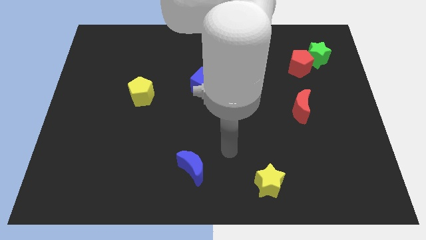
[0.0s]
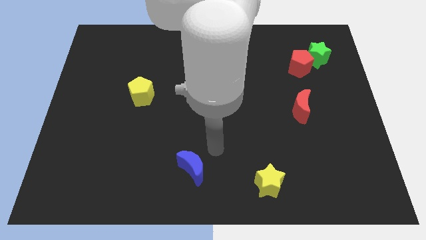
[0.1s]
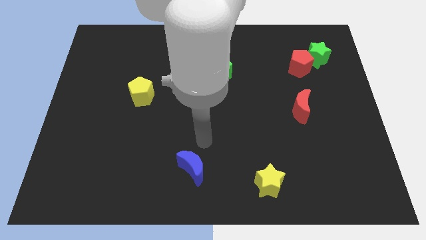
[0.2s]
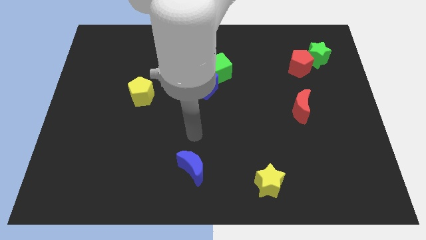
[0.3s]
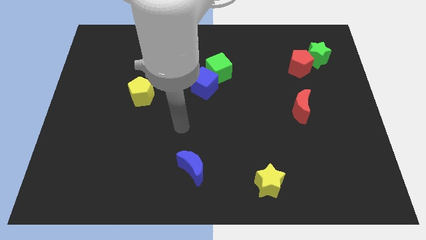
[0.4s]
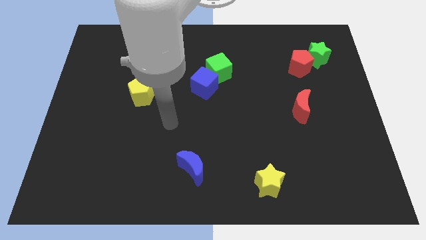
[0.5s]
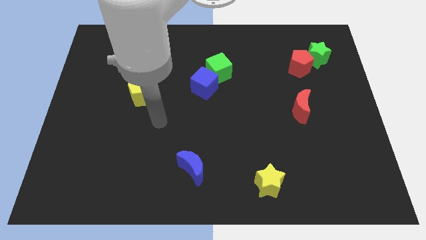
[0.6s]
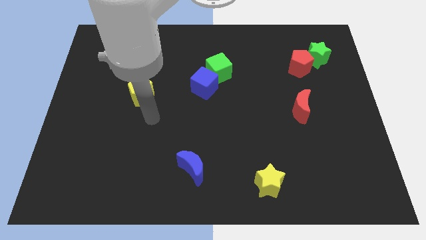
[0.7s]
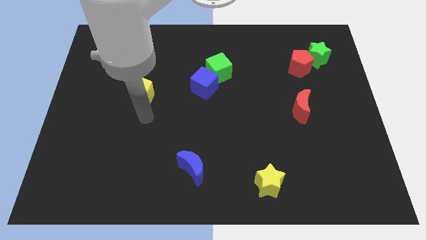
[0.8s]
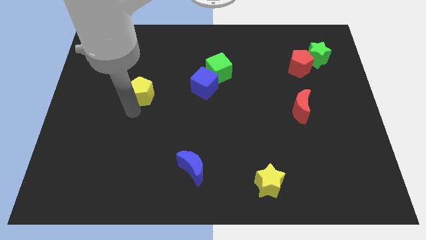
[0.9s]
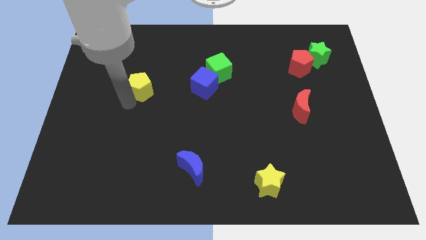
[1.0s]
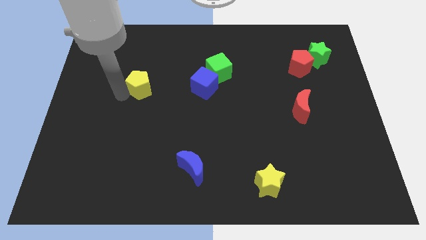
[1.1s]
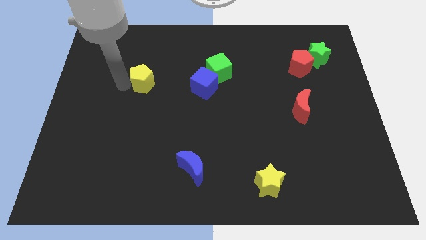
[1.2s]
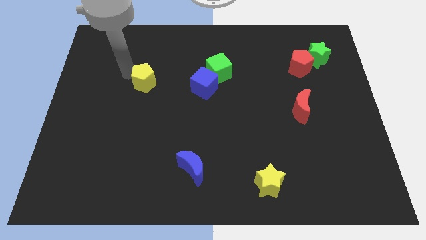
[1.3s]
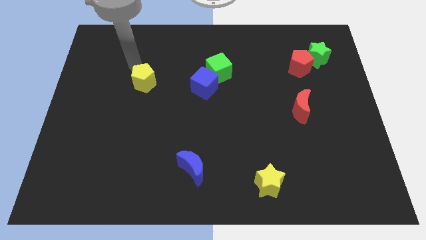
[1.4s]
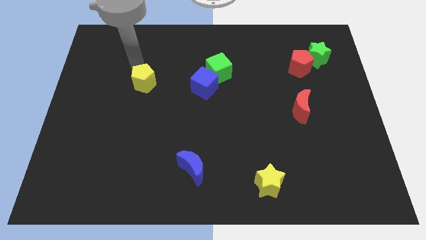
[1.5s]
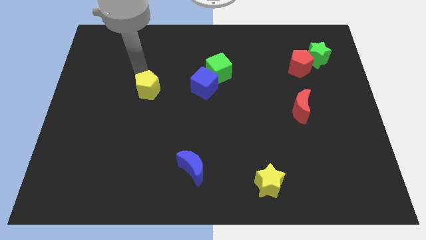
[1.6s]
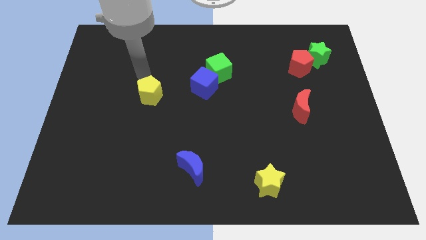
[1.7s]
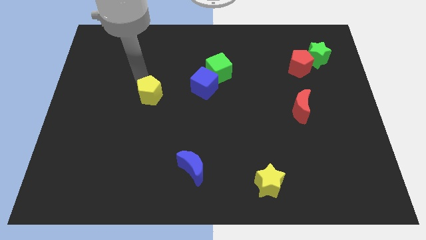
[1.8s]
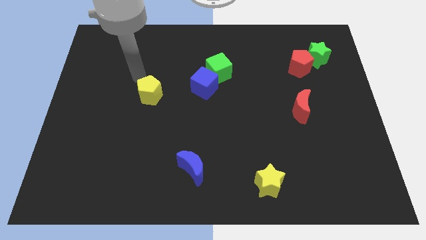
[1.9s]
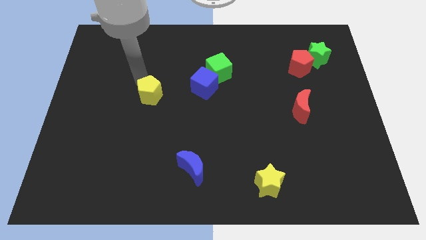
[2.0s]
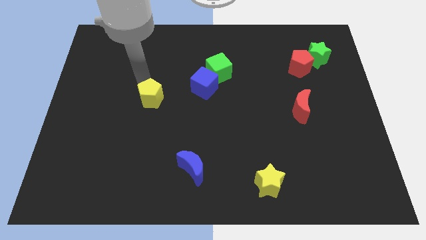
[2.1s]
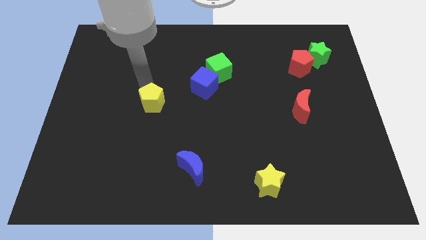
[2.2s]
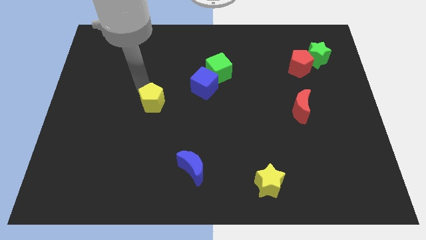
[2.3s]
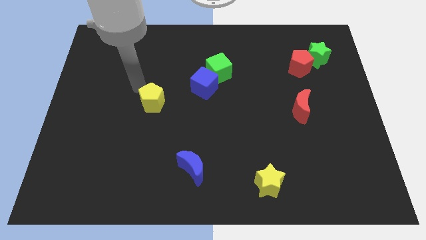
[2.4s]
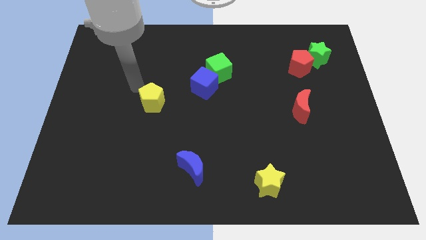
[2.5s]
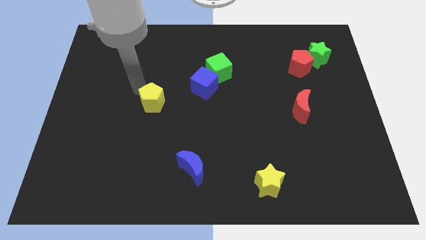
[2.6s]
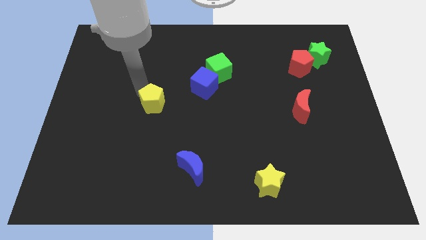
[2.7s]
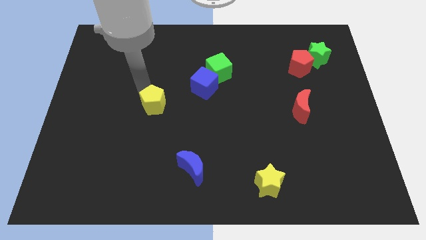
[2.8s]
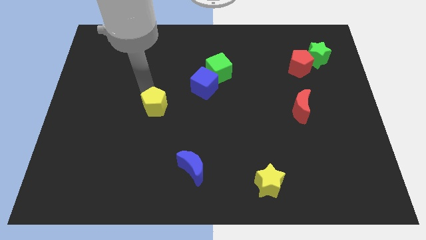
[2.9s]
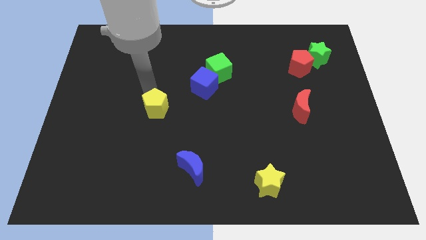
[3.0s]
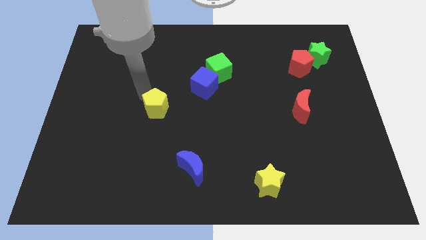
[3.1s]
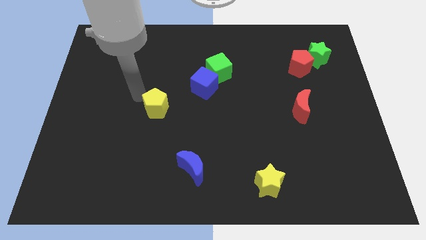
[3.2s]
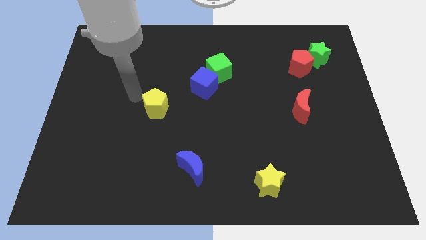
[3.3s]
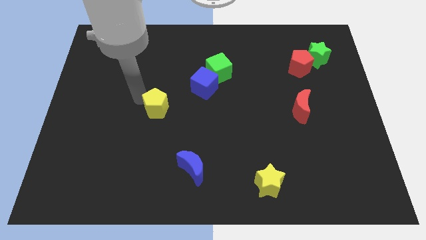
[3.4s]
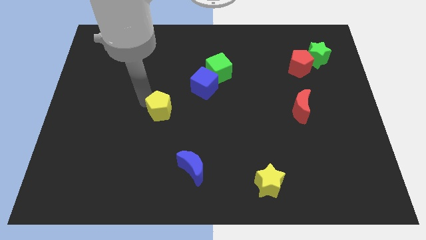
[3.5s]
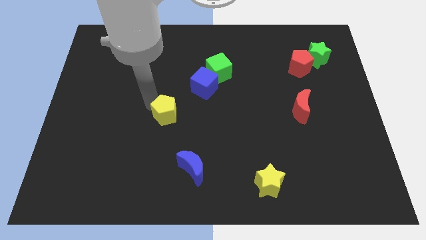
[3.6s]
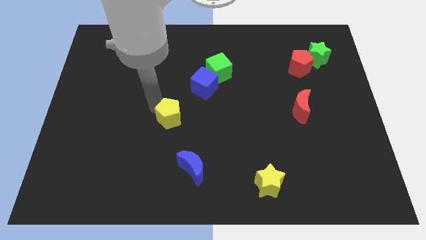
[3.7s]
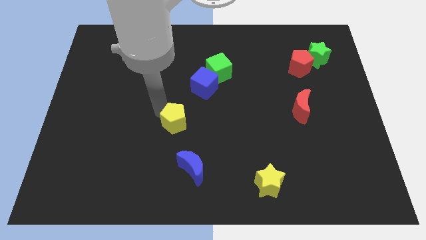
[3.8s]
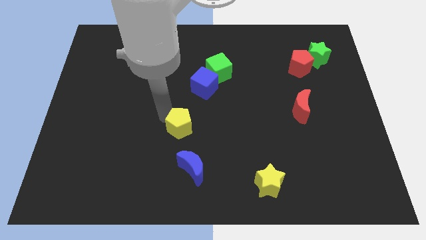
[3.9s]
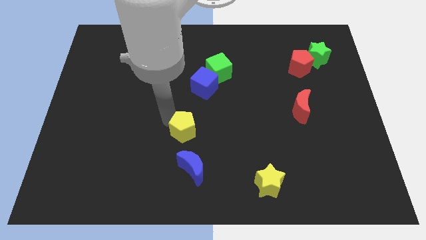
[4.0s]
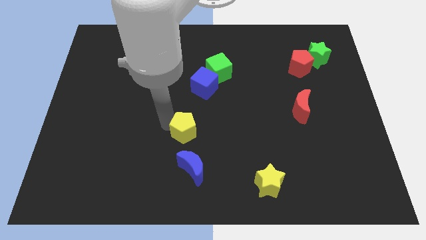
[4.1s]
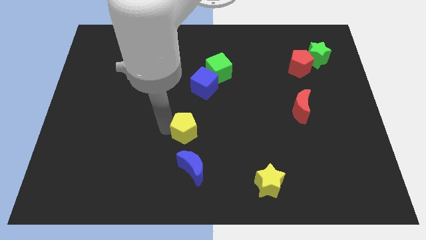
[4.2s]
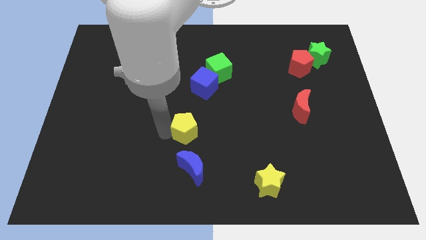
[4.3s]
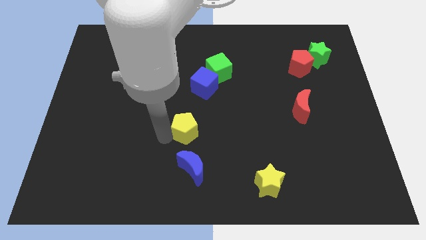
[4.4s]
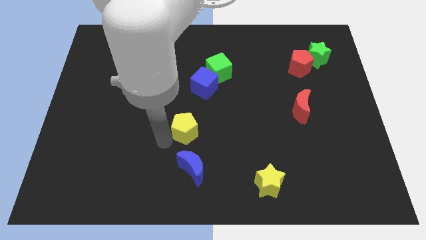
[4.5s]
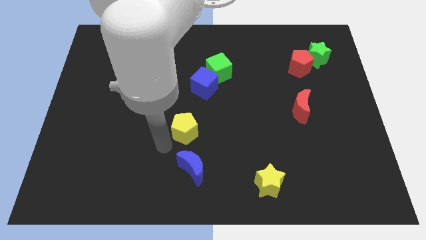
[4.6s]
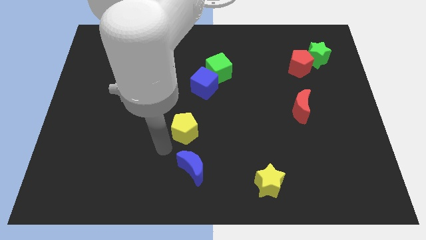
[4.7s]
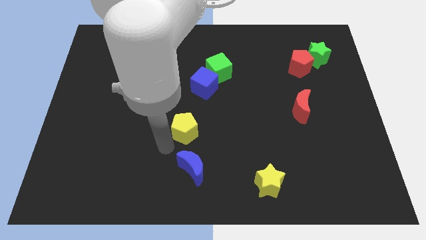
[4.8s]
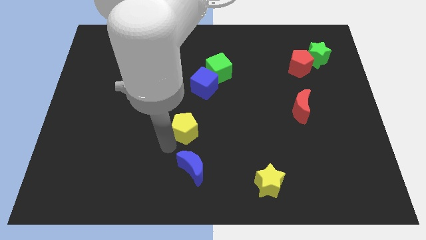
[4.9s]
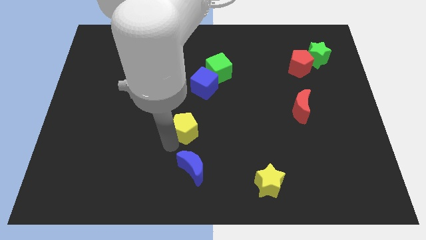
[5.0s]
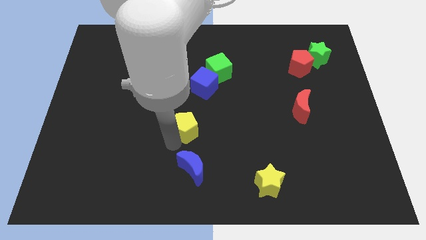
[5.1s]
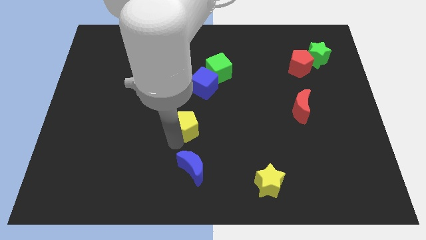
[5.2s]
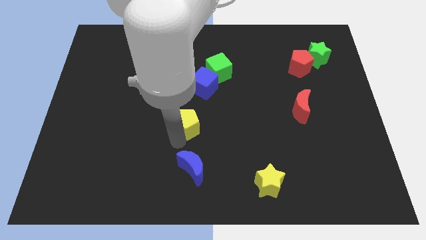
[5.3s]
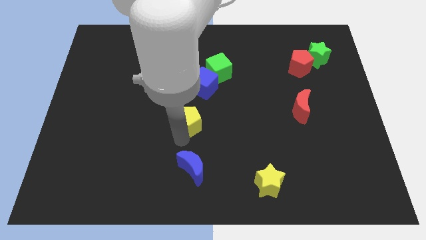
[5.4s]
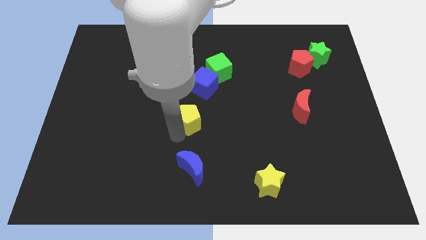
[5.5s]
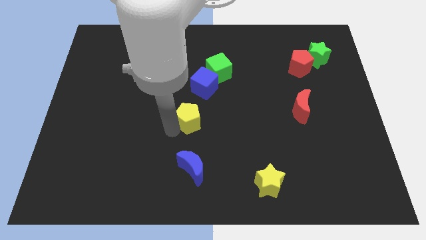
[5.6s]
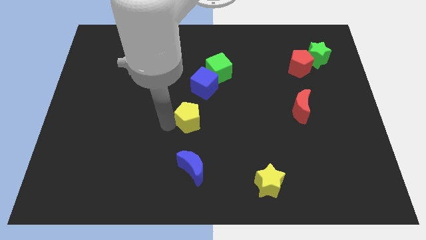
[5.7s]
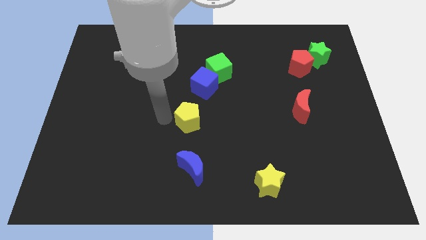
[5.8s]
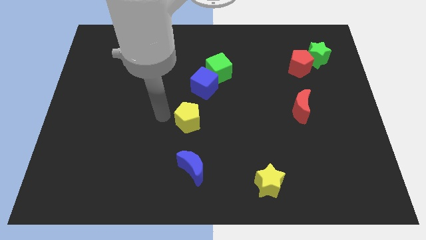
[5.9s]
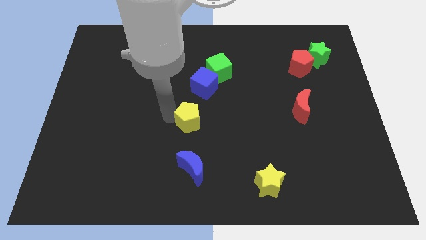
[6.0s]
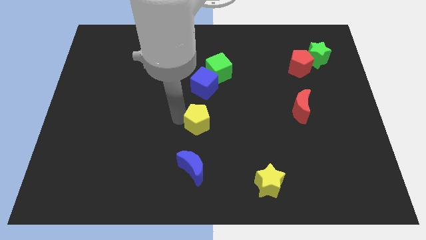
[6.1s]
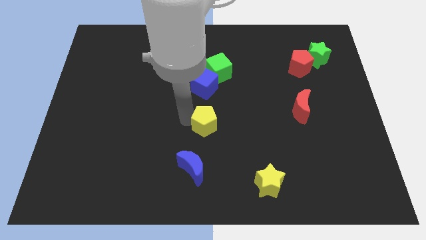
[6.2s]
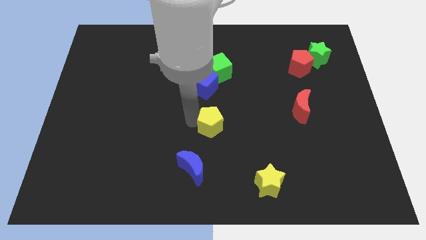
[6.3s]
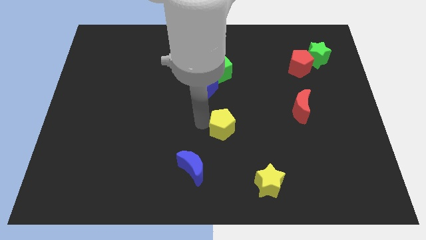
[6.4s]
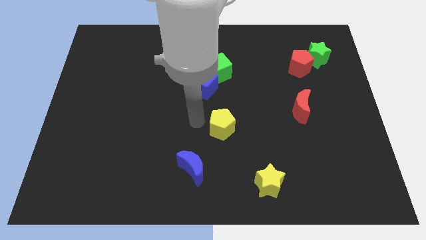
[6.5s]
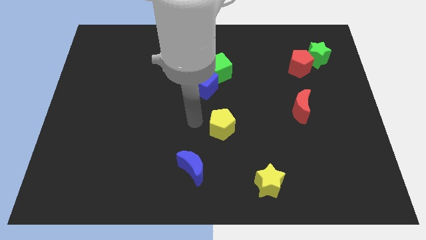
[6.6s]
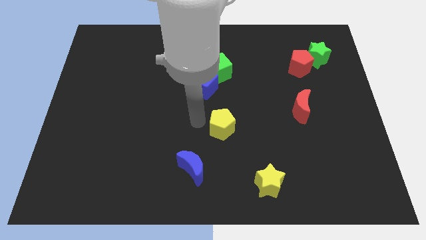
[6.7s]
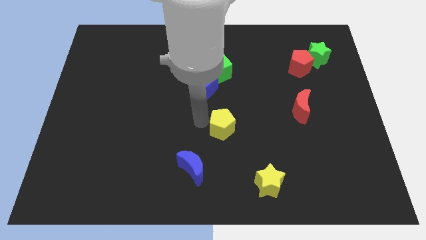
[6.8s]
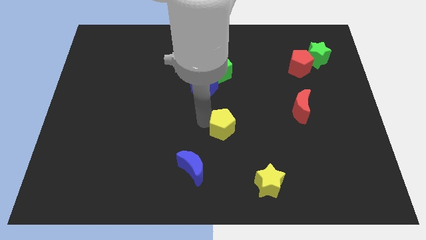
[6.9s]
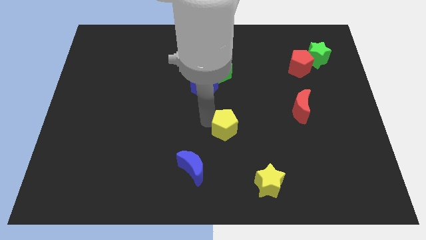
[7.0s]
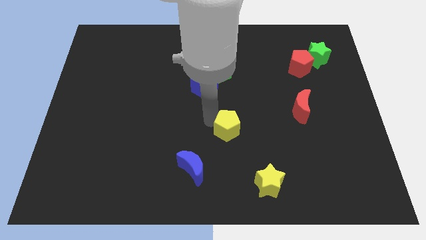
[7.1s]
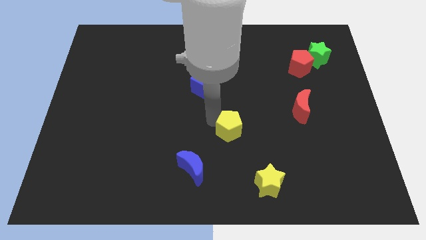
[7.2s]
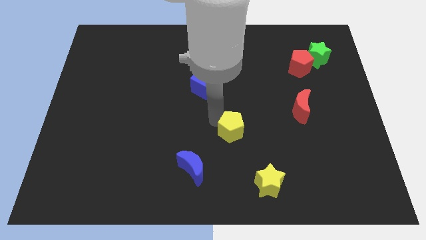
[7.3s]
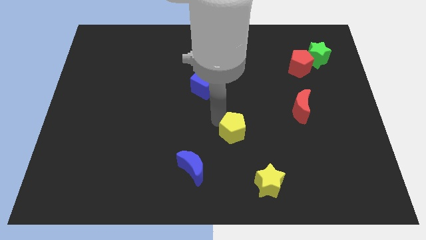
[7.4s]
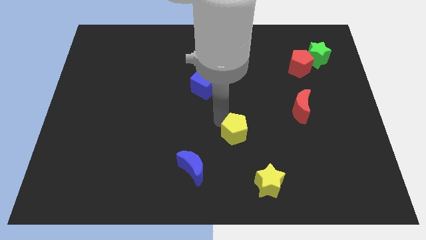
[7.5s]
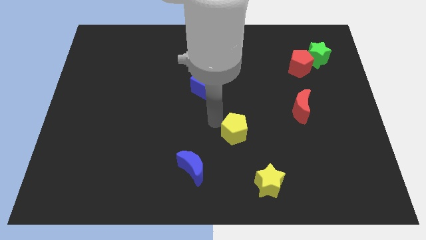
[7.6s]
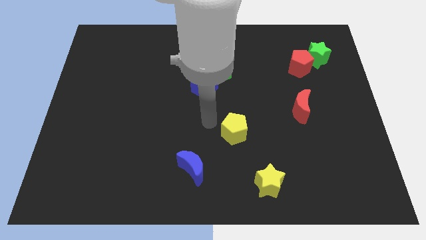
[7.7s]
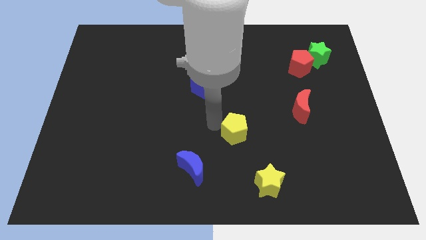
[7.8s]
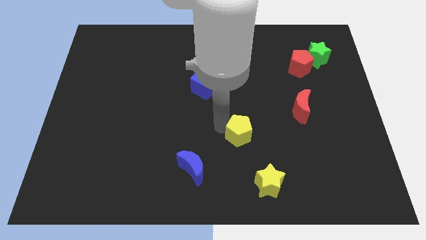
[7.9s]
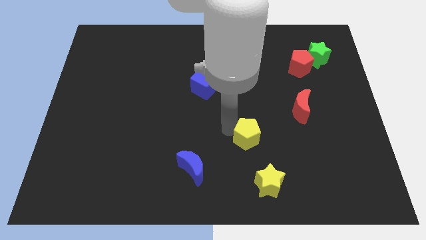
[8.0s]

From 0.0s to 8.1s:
move the yellow pentagon to the top of the yellow star
